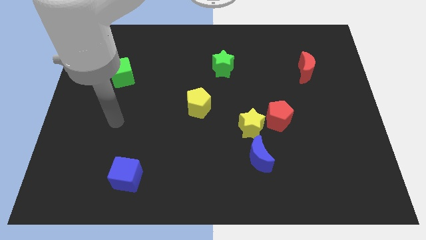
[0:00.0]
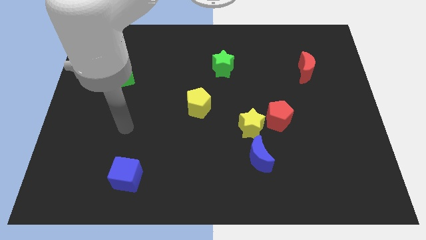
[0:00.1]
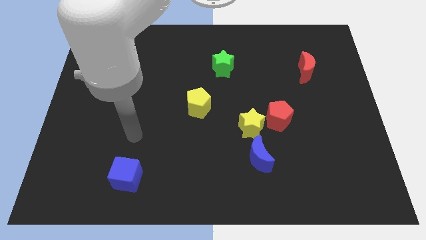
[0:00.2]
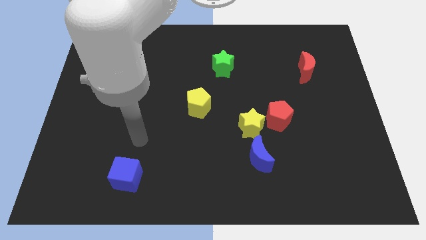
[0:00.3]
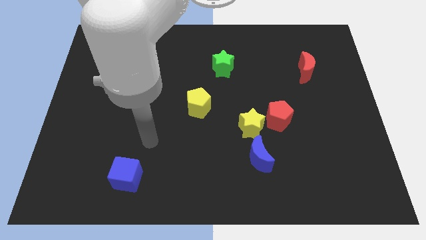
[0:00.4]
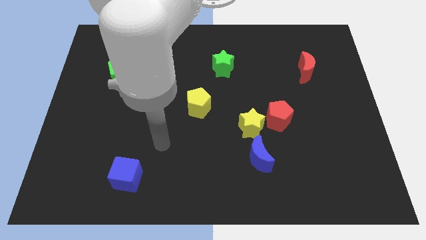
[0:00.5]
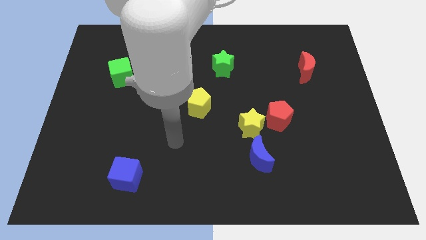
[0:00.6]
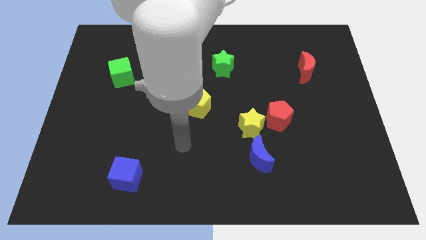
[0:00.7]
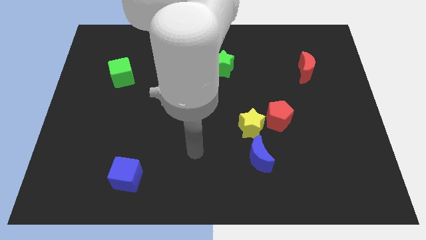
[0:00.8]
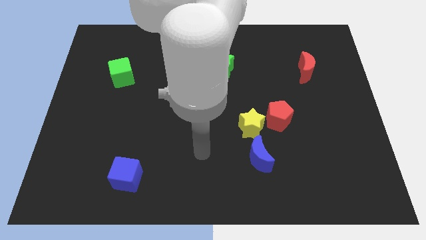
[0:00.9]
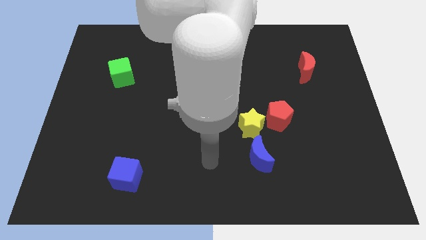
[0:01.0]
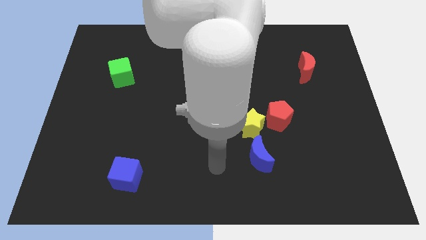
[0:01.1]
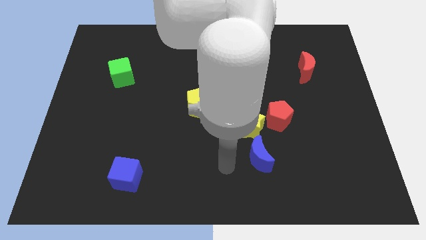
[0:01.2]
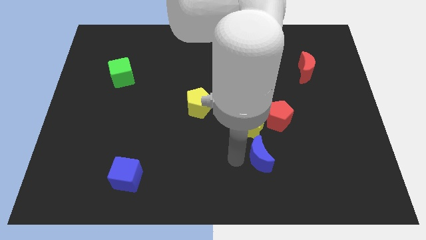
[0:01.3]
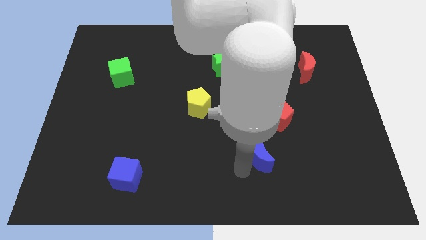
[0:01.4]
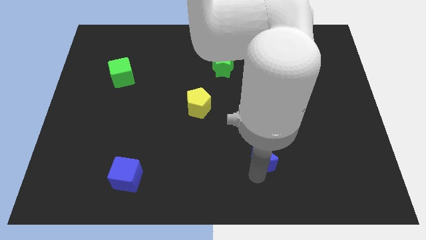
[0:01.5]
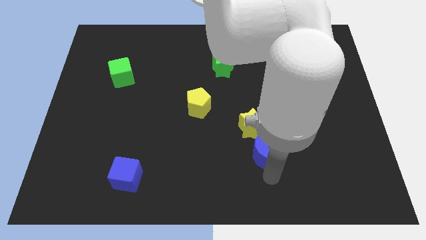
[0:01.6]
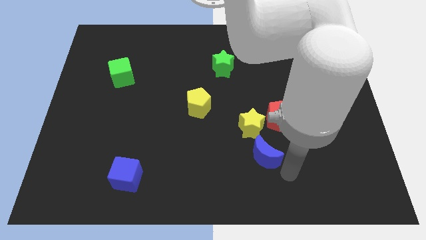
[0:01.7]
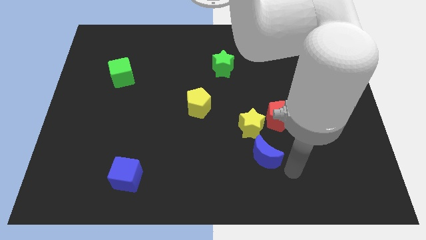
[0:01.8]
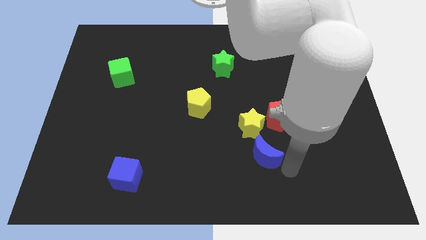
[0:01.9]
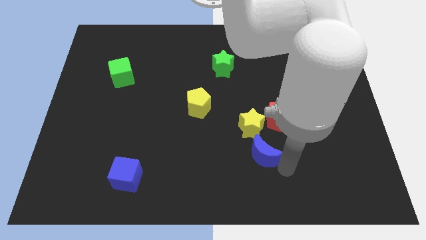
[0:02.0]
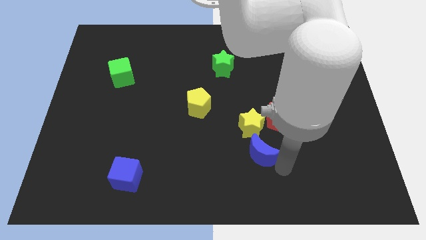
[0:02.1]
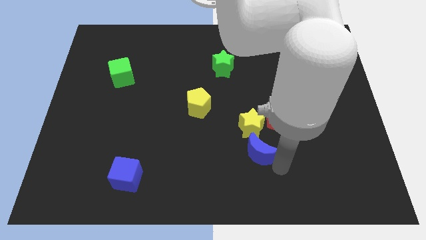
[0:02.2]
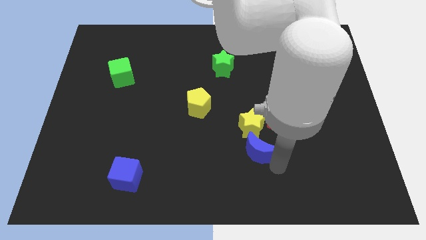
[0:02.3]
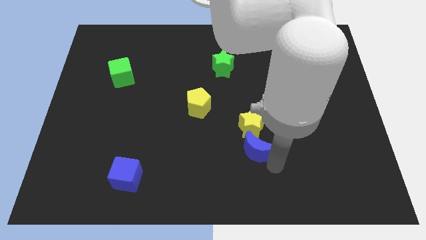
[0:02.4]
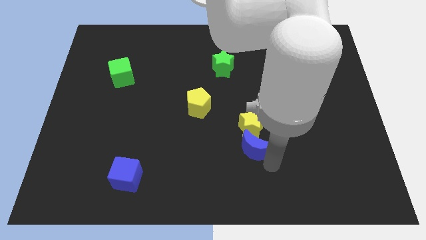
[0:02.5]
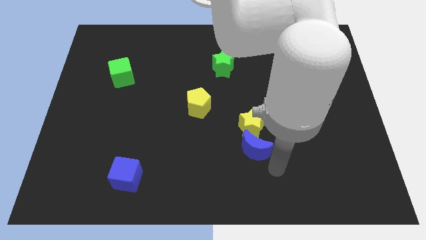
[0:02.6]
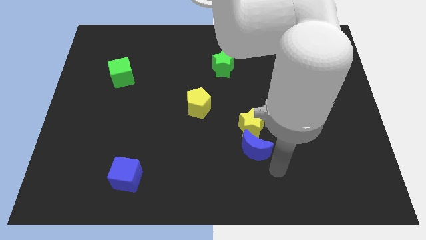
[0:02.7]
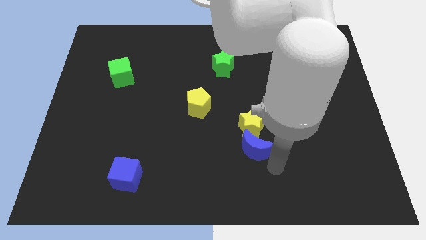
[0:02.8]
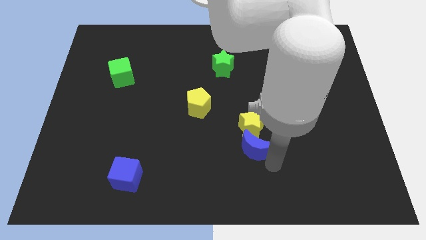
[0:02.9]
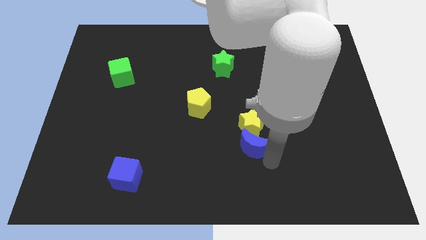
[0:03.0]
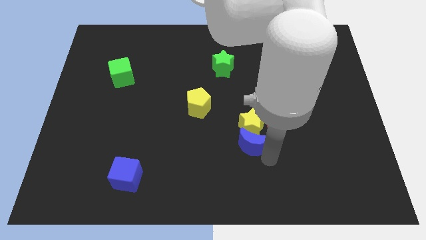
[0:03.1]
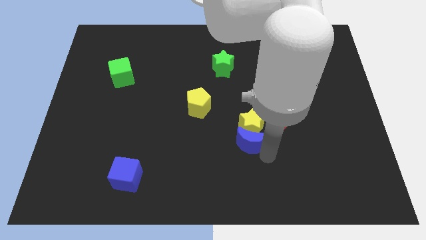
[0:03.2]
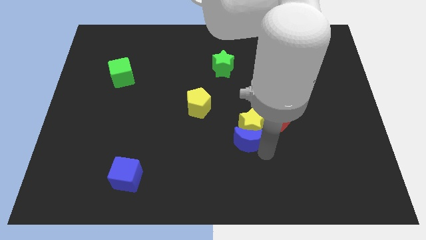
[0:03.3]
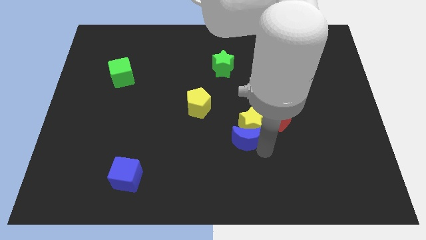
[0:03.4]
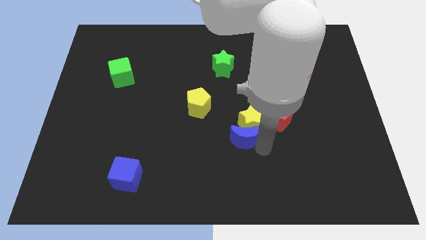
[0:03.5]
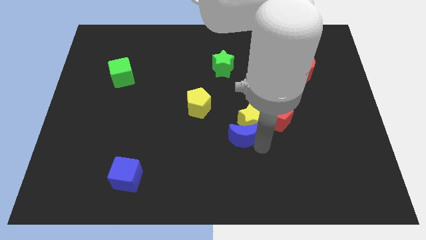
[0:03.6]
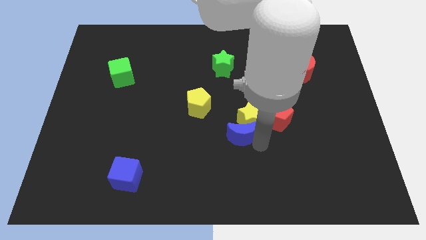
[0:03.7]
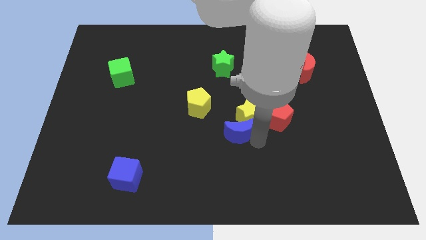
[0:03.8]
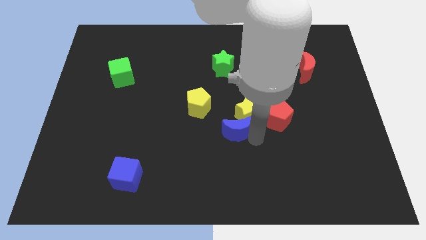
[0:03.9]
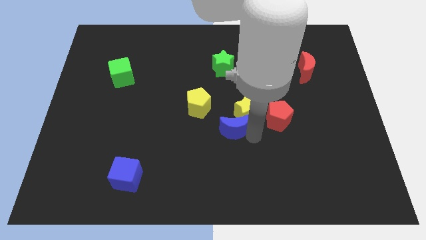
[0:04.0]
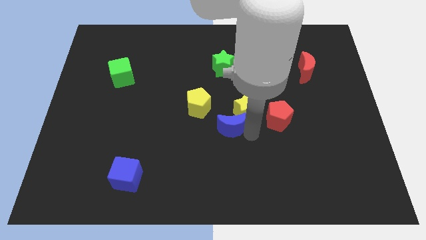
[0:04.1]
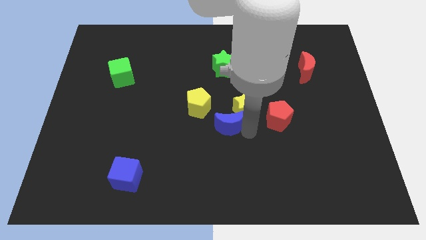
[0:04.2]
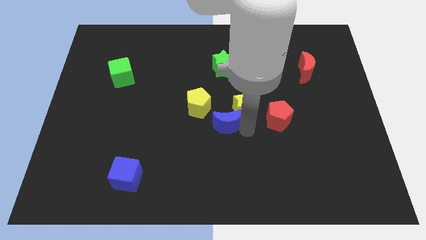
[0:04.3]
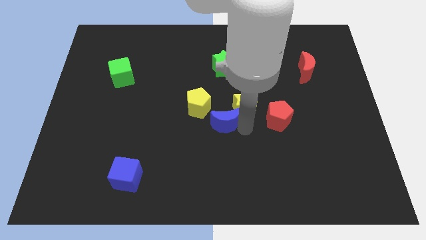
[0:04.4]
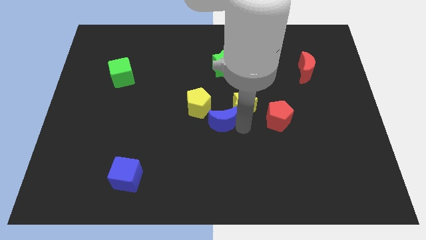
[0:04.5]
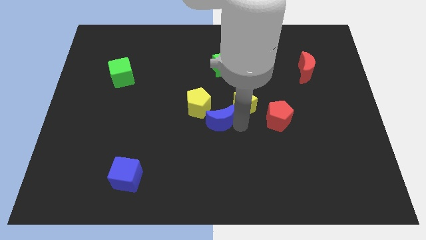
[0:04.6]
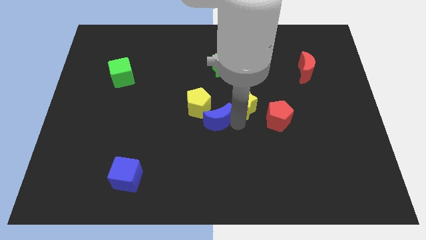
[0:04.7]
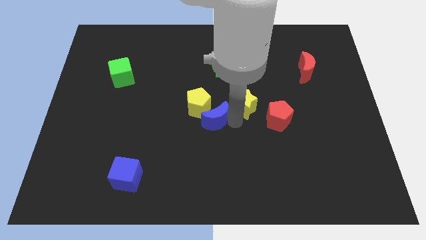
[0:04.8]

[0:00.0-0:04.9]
slide the blue moon towards the yellow pentagon

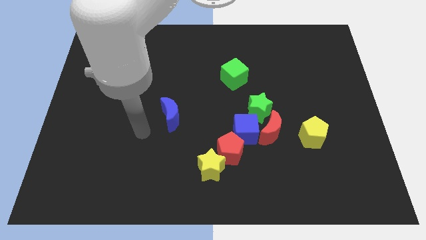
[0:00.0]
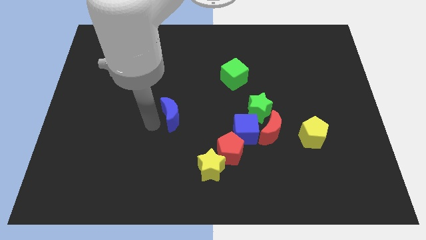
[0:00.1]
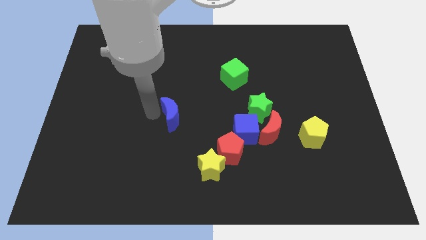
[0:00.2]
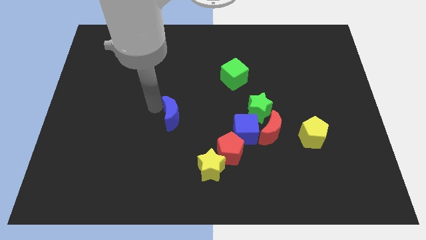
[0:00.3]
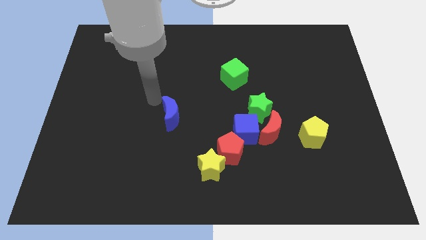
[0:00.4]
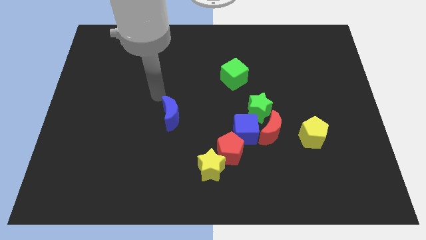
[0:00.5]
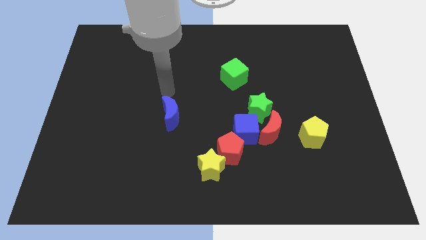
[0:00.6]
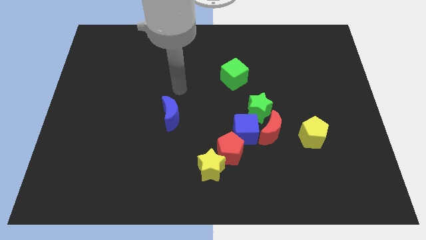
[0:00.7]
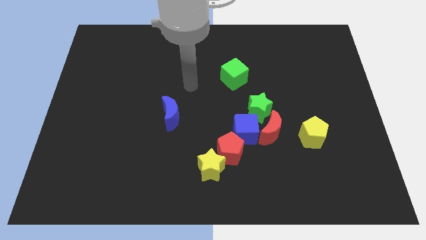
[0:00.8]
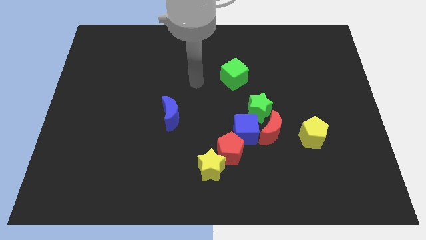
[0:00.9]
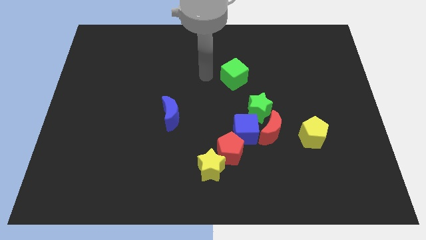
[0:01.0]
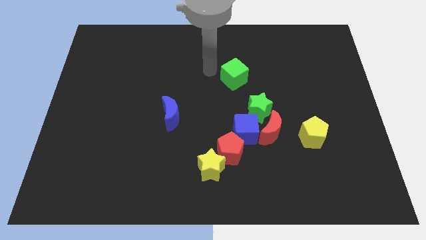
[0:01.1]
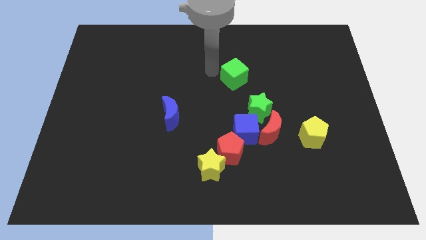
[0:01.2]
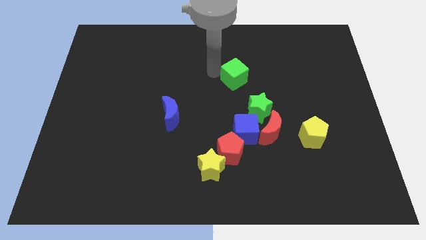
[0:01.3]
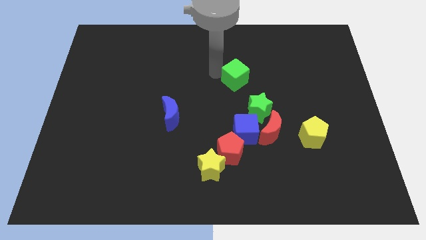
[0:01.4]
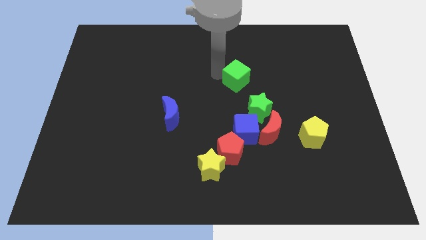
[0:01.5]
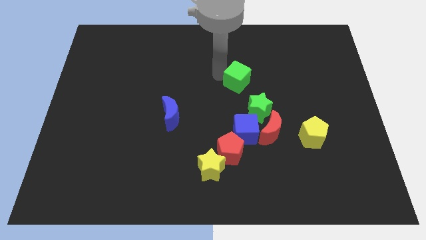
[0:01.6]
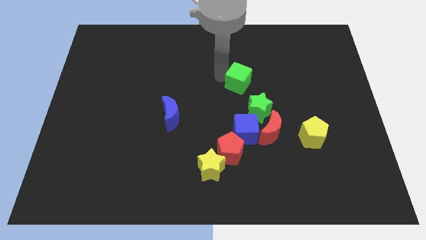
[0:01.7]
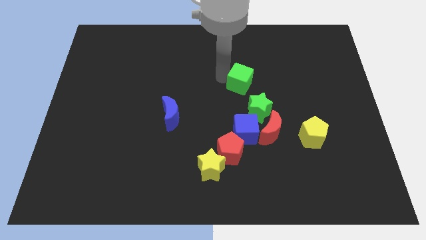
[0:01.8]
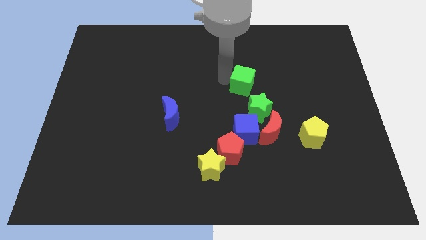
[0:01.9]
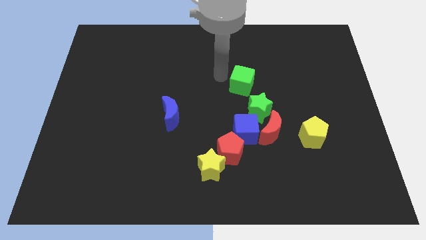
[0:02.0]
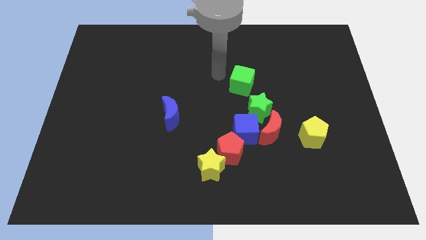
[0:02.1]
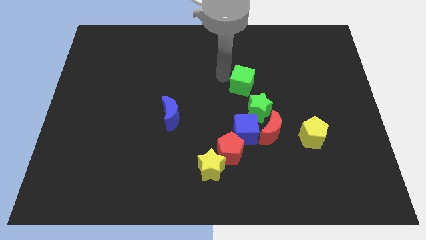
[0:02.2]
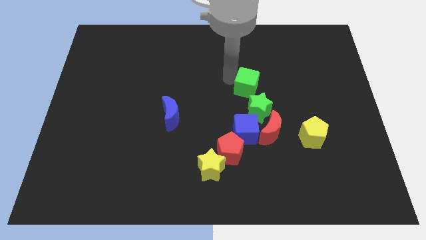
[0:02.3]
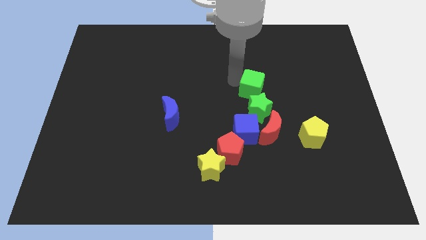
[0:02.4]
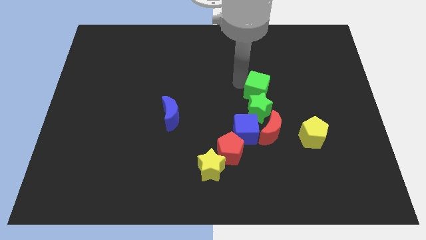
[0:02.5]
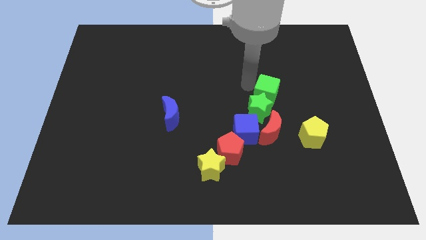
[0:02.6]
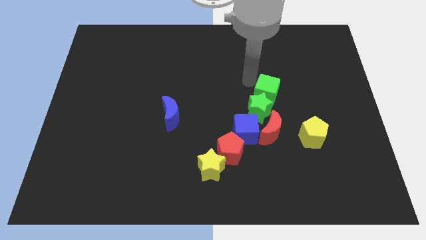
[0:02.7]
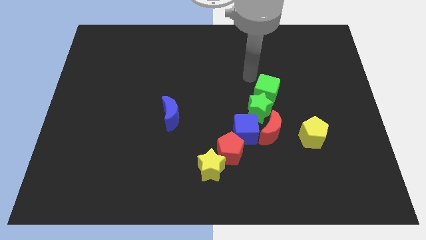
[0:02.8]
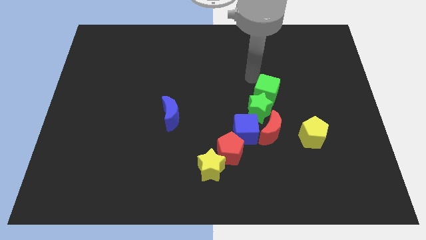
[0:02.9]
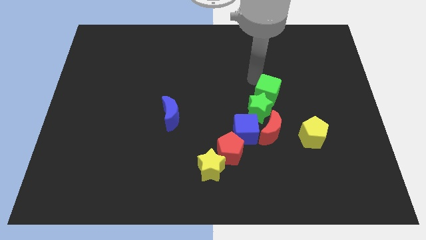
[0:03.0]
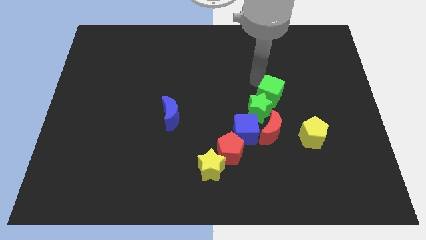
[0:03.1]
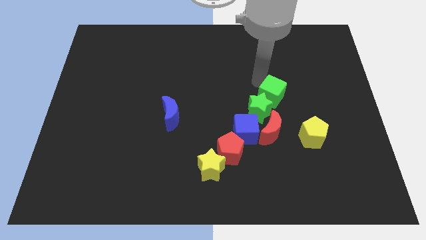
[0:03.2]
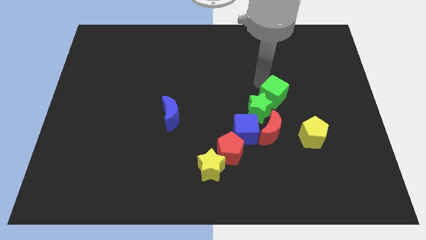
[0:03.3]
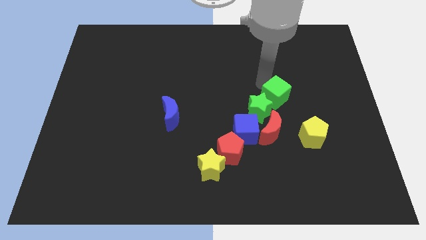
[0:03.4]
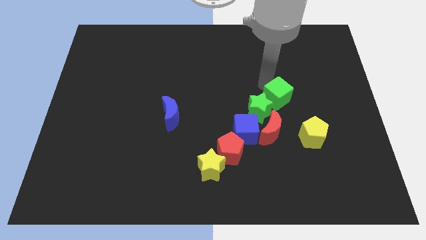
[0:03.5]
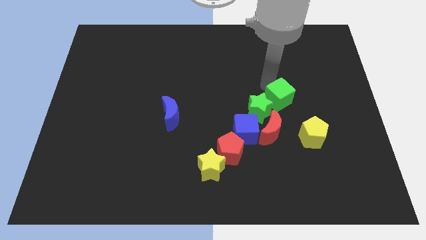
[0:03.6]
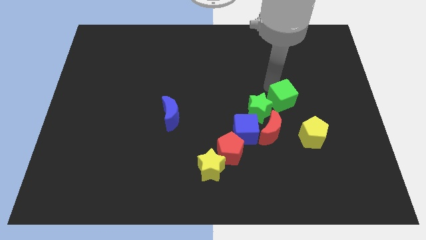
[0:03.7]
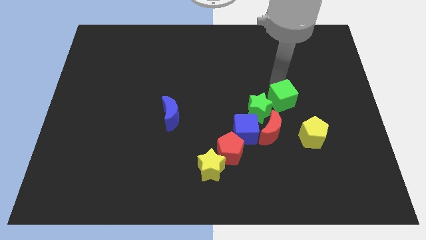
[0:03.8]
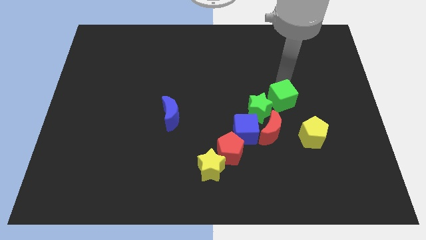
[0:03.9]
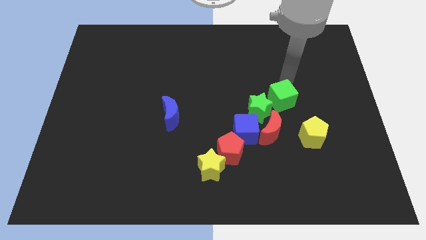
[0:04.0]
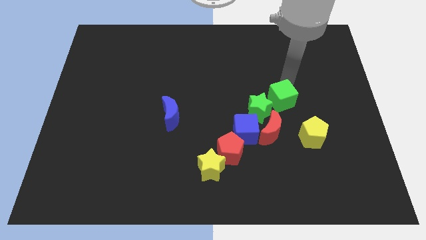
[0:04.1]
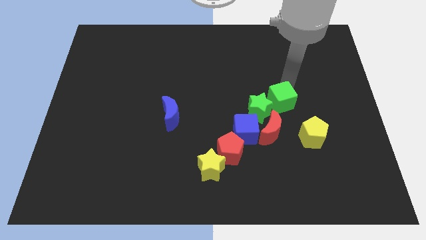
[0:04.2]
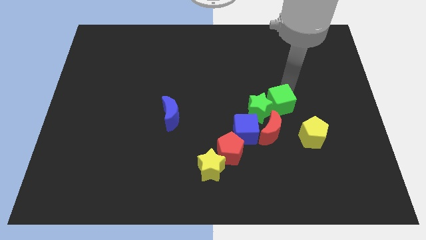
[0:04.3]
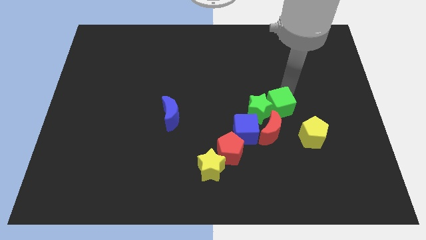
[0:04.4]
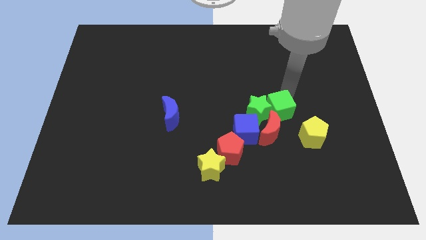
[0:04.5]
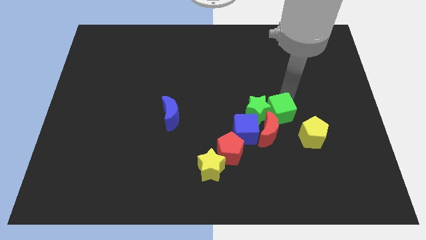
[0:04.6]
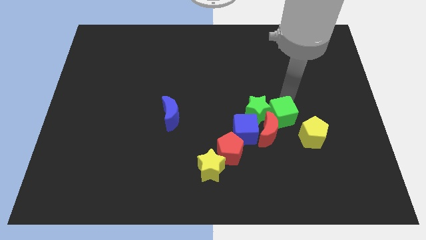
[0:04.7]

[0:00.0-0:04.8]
put the green cube close to the red moon
